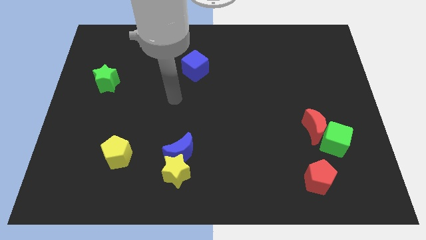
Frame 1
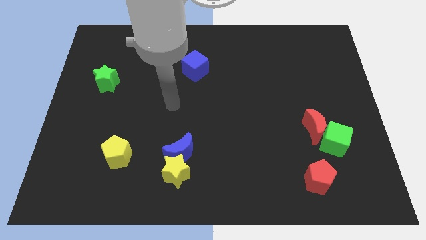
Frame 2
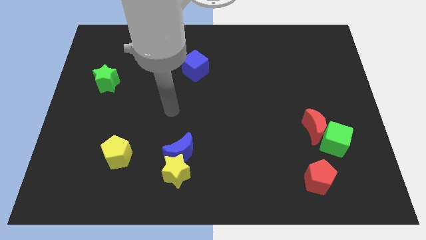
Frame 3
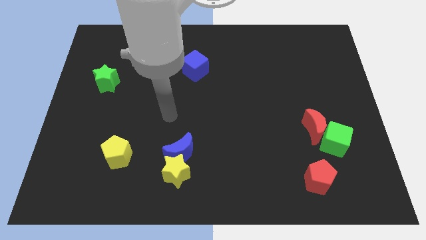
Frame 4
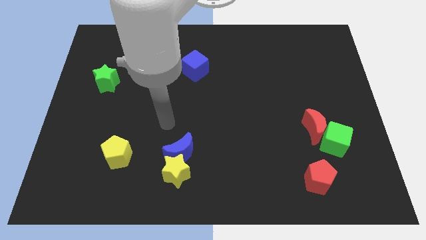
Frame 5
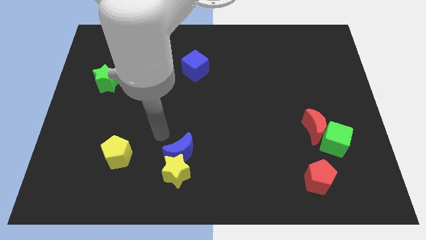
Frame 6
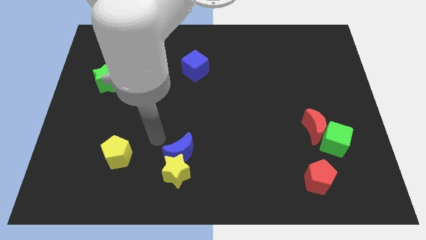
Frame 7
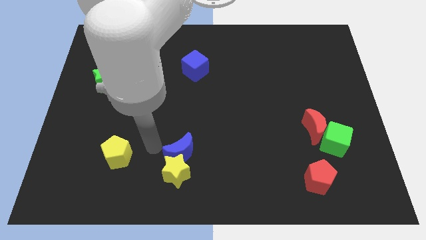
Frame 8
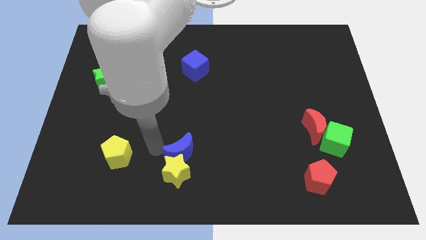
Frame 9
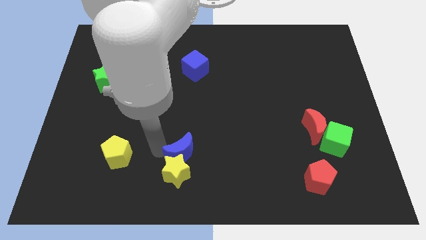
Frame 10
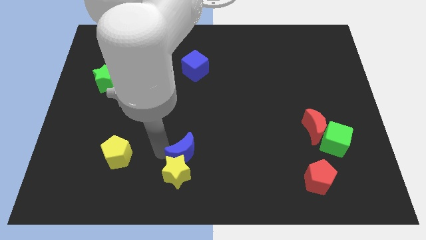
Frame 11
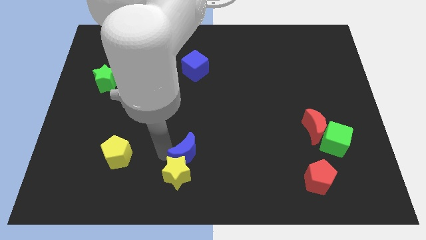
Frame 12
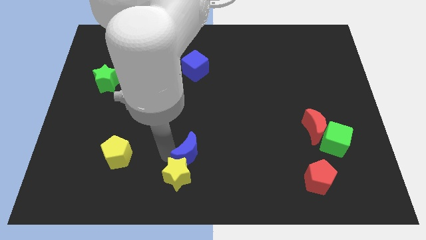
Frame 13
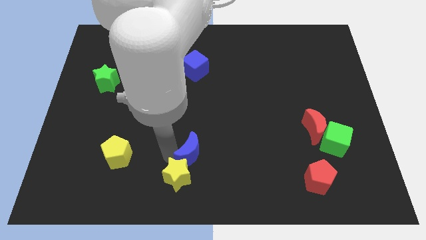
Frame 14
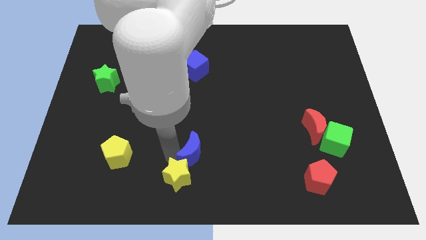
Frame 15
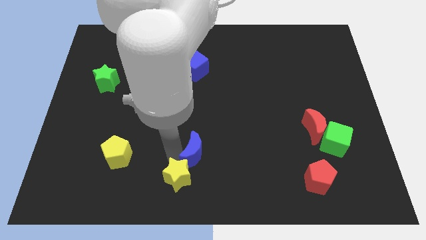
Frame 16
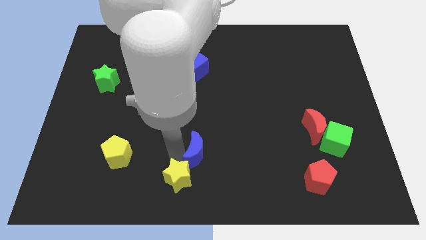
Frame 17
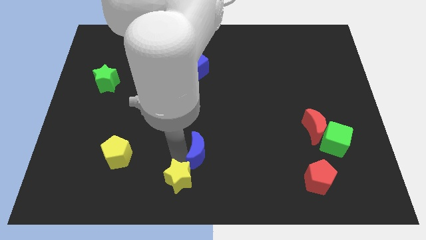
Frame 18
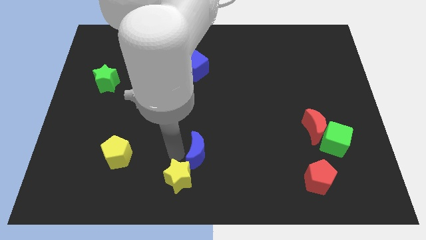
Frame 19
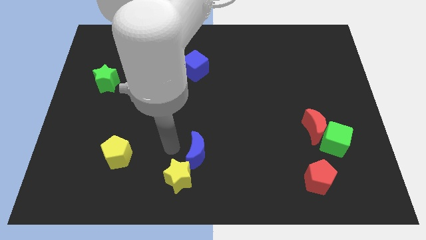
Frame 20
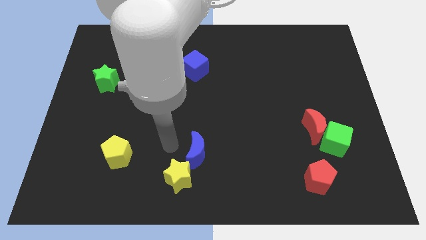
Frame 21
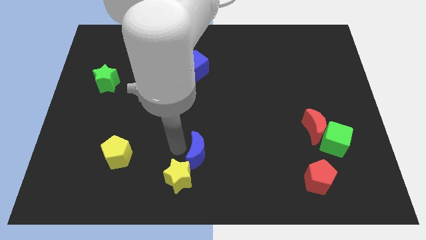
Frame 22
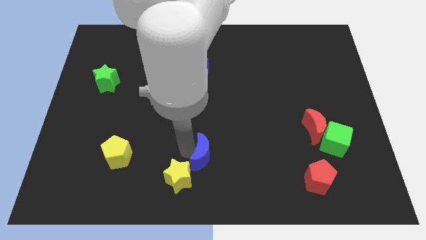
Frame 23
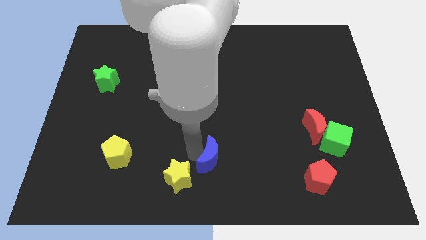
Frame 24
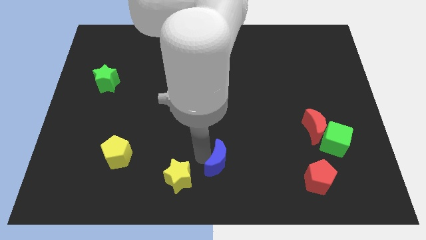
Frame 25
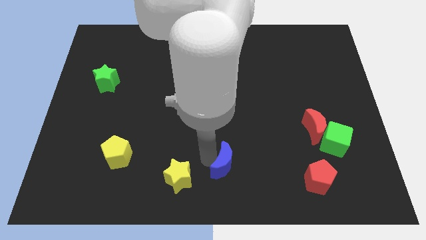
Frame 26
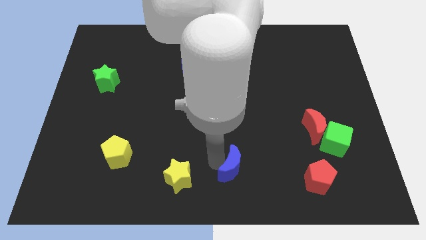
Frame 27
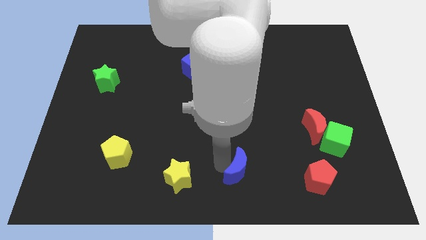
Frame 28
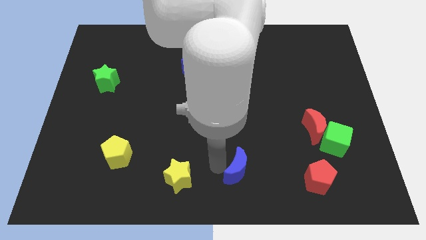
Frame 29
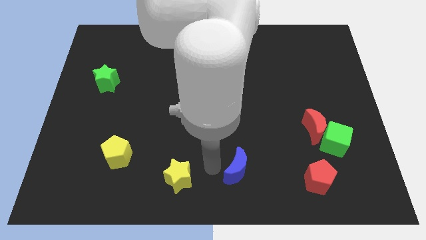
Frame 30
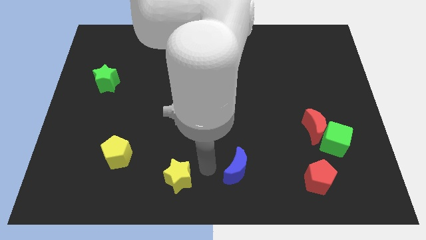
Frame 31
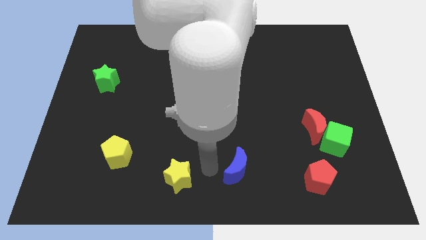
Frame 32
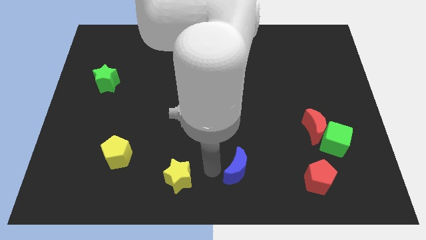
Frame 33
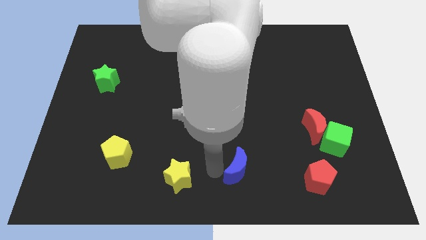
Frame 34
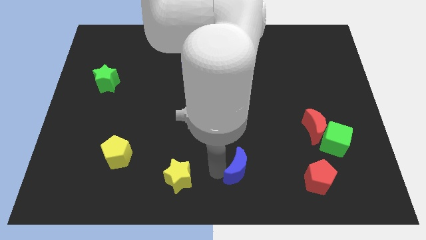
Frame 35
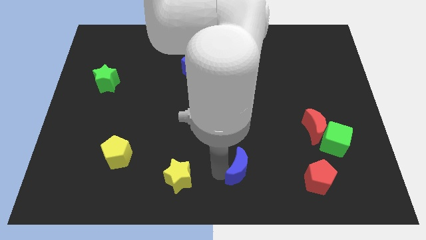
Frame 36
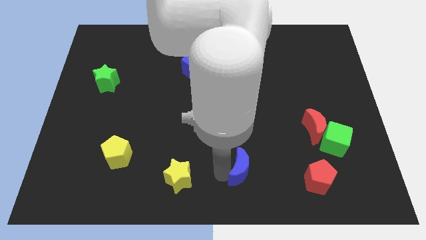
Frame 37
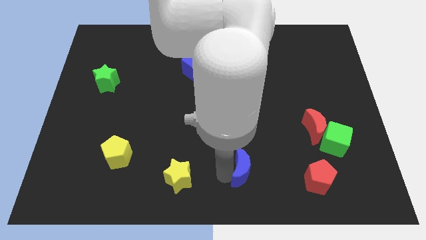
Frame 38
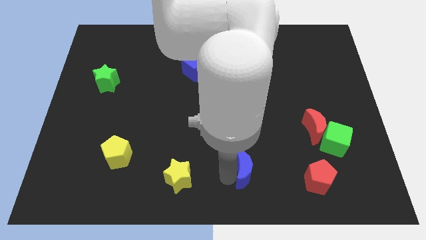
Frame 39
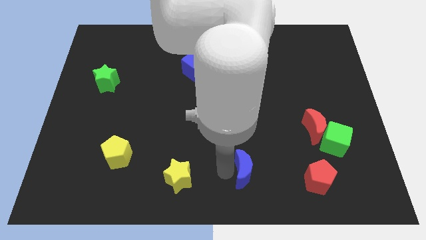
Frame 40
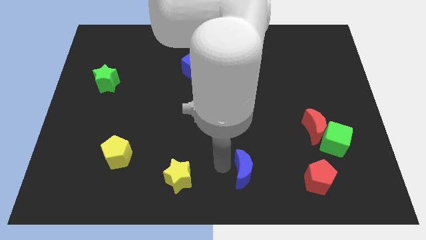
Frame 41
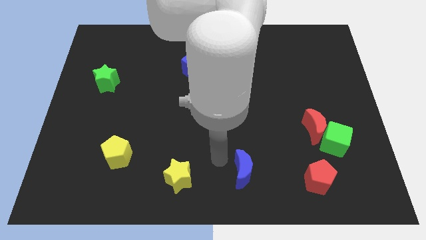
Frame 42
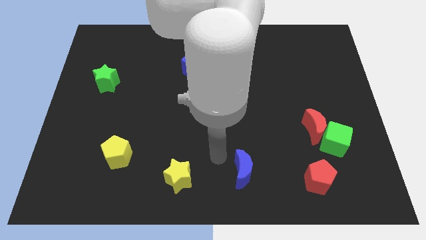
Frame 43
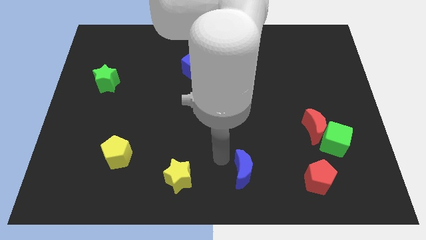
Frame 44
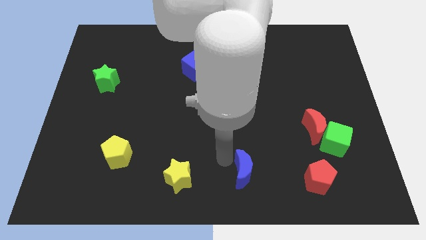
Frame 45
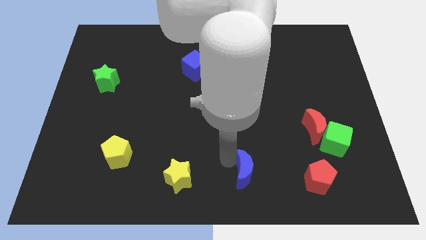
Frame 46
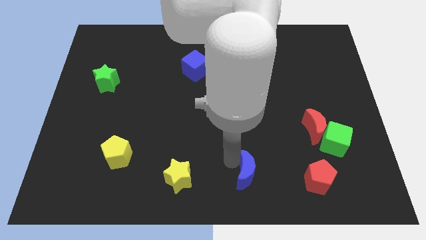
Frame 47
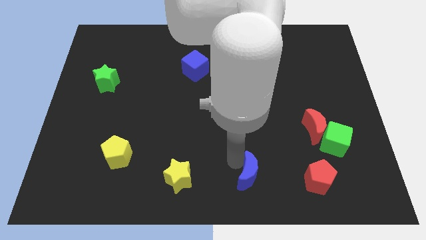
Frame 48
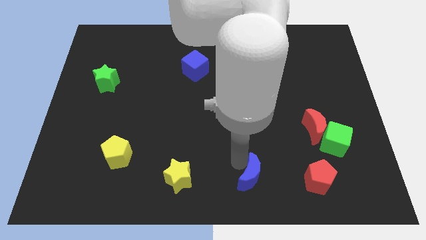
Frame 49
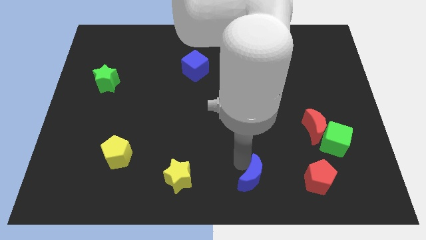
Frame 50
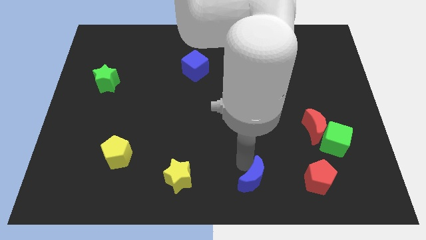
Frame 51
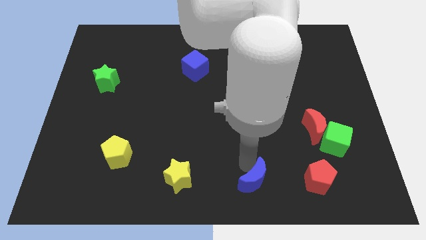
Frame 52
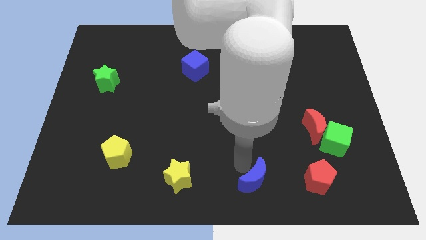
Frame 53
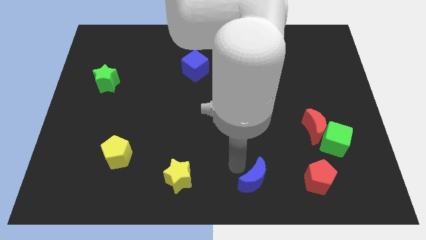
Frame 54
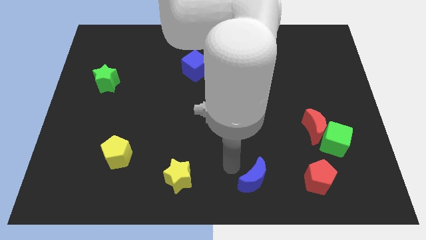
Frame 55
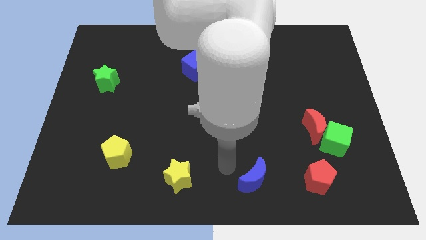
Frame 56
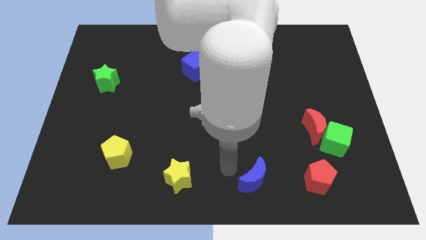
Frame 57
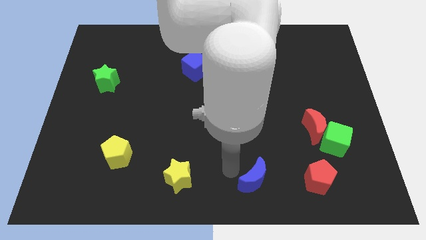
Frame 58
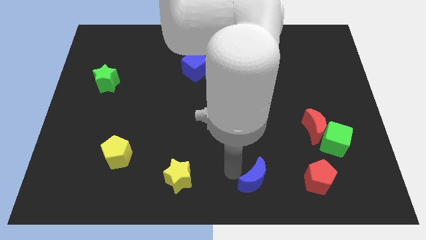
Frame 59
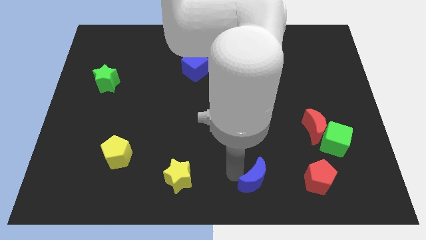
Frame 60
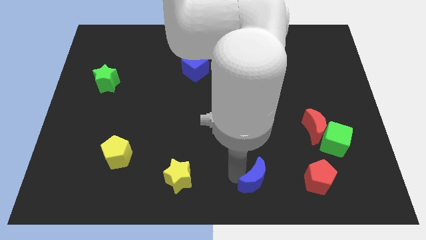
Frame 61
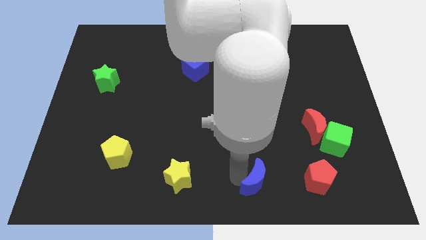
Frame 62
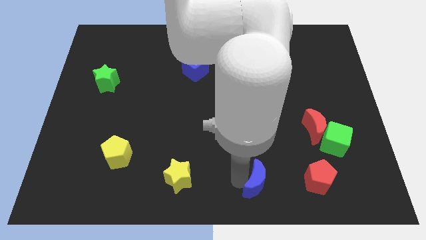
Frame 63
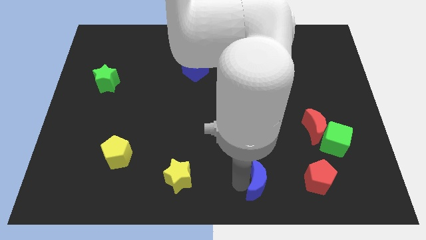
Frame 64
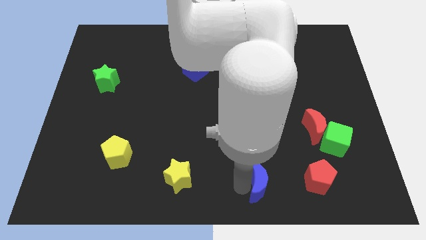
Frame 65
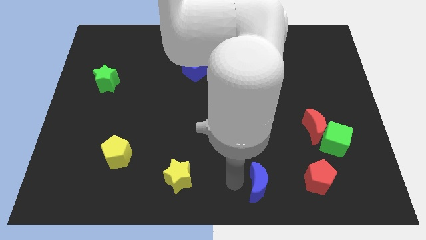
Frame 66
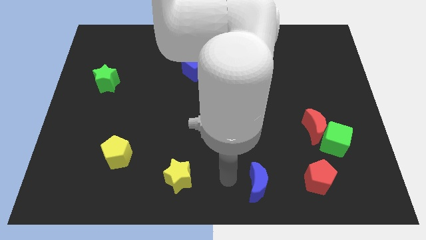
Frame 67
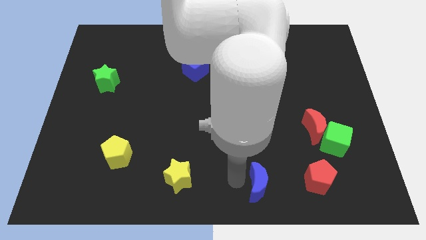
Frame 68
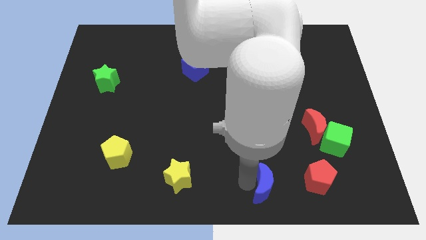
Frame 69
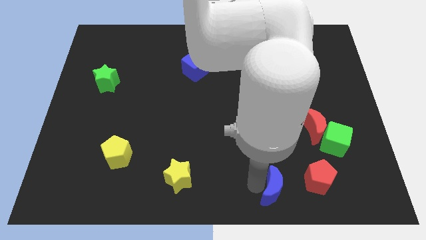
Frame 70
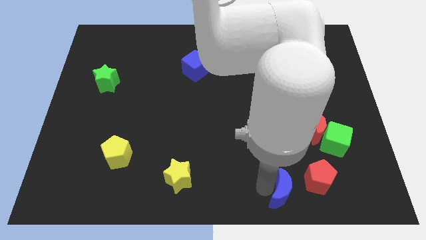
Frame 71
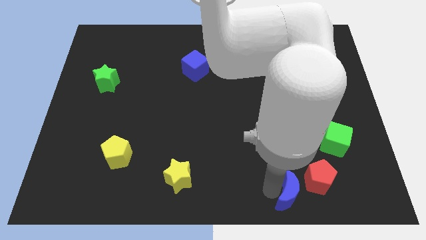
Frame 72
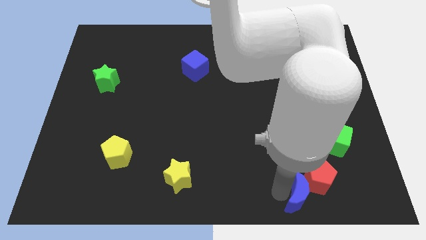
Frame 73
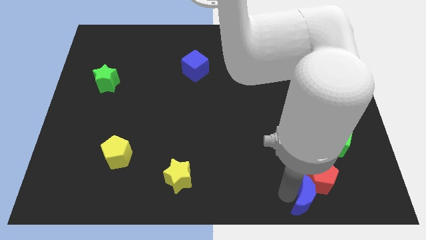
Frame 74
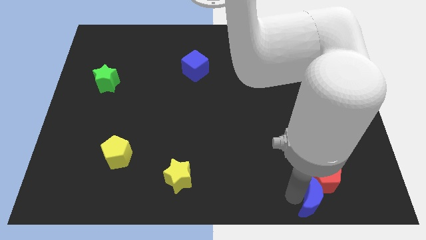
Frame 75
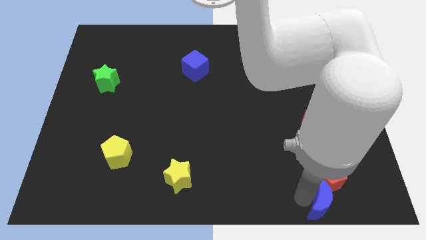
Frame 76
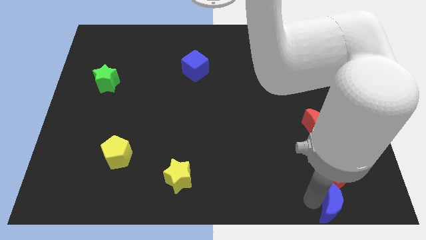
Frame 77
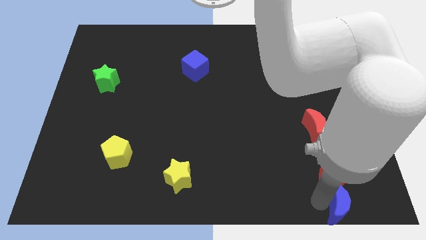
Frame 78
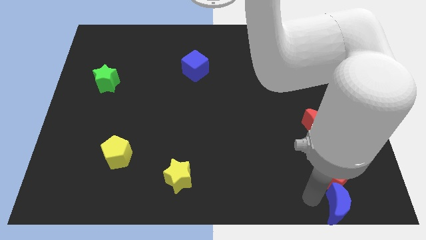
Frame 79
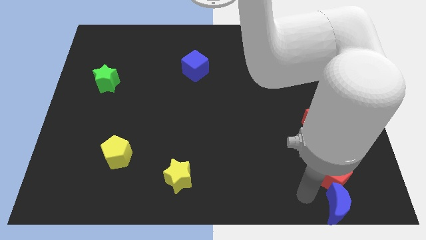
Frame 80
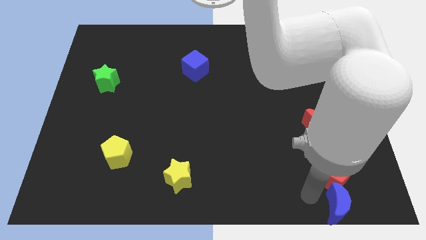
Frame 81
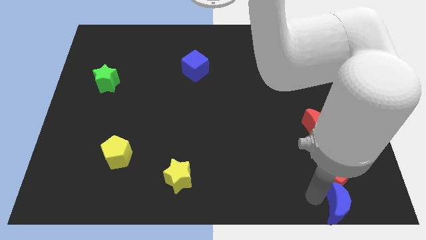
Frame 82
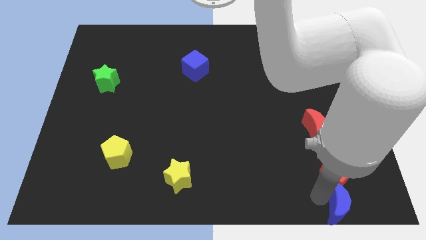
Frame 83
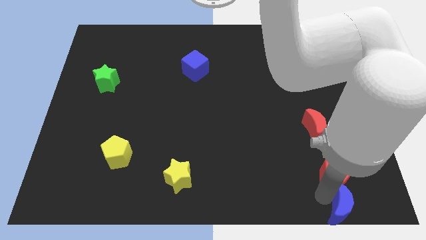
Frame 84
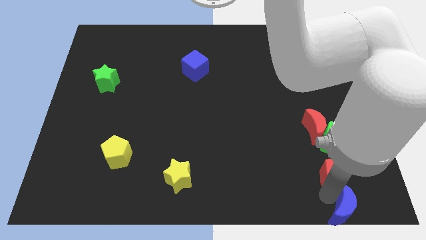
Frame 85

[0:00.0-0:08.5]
slide the blue moon to the lower right corner
